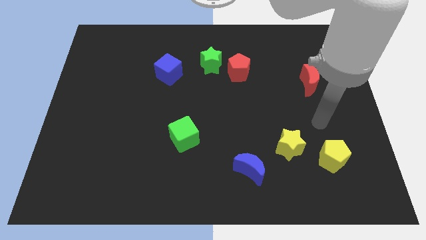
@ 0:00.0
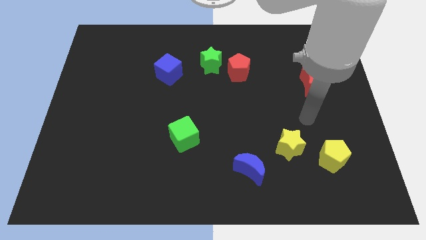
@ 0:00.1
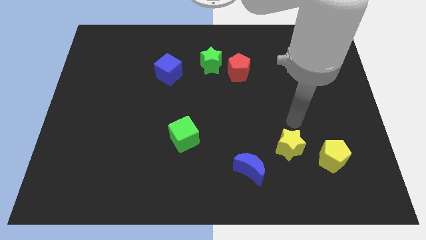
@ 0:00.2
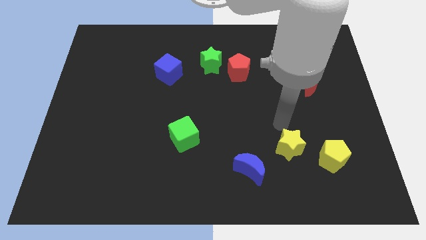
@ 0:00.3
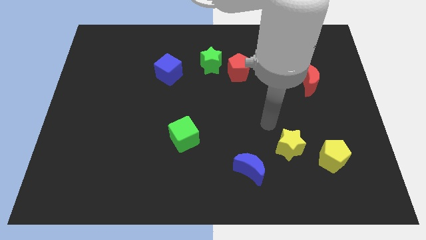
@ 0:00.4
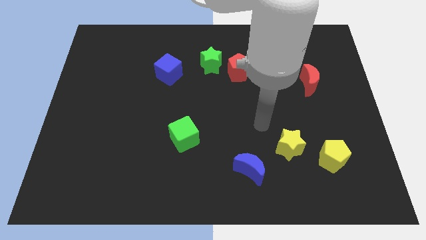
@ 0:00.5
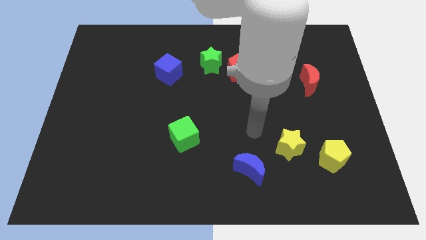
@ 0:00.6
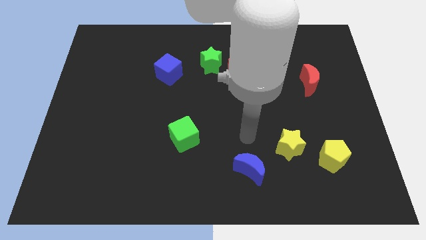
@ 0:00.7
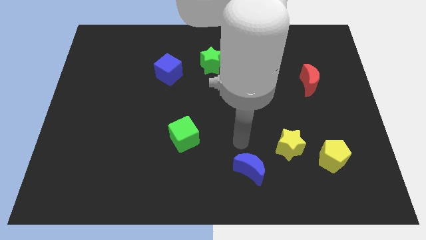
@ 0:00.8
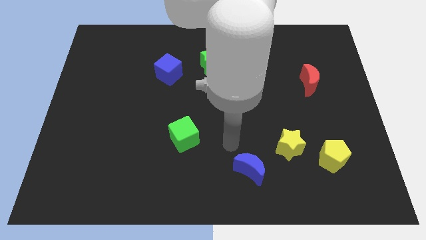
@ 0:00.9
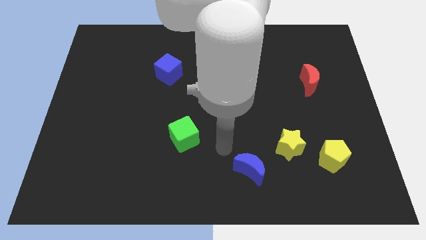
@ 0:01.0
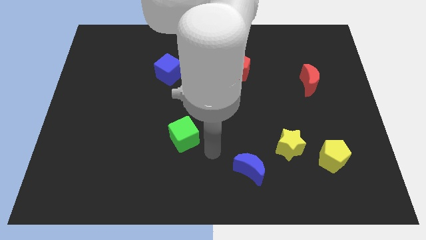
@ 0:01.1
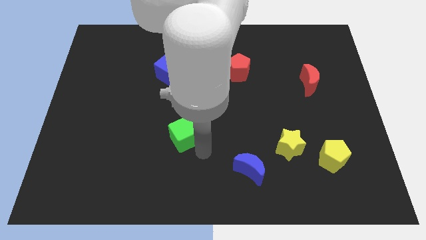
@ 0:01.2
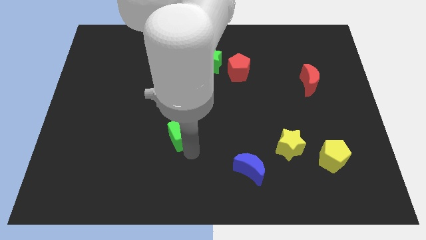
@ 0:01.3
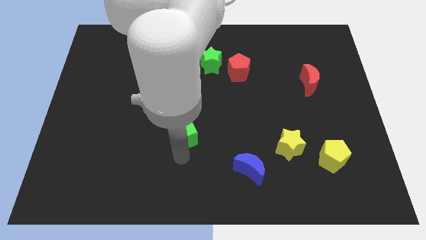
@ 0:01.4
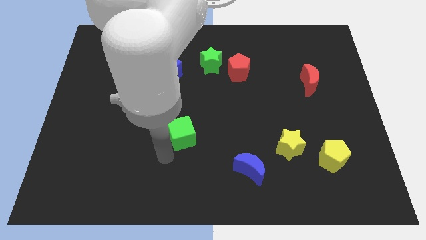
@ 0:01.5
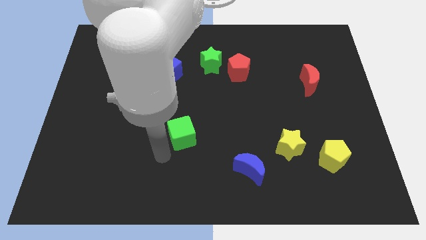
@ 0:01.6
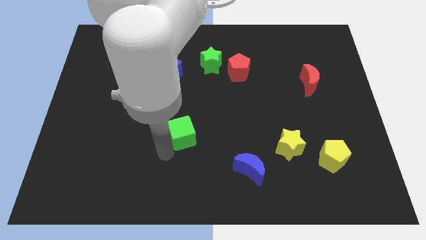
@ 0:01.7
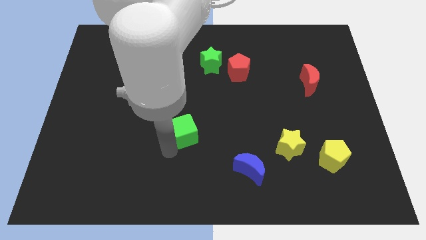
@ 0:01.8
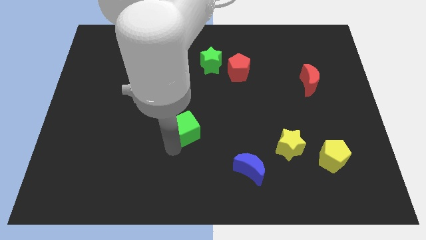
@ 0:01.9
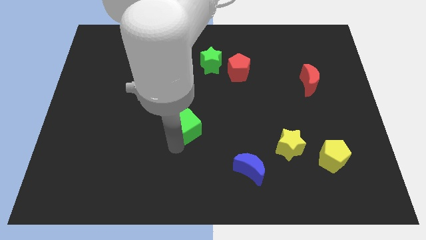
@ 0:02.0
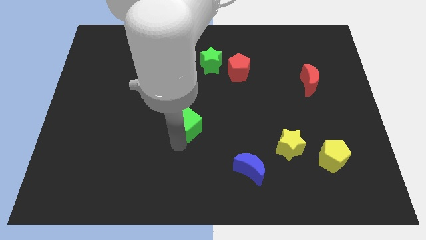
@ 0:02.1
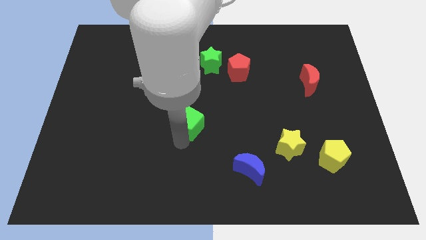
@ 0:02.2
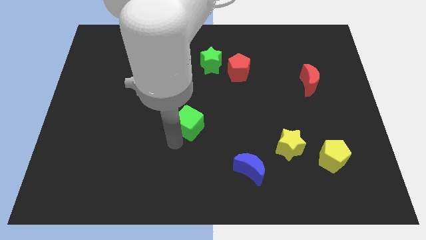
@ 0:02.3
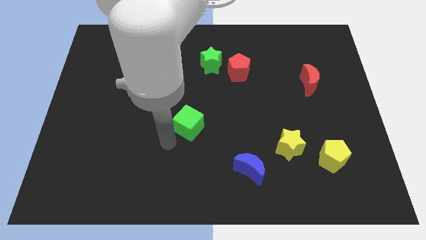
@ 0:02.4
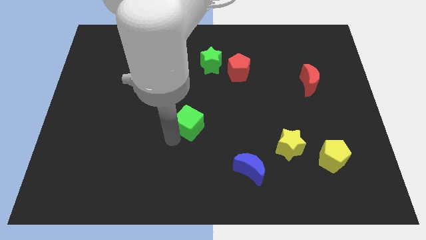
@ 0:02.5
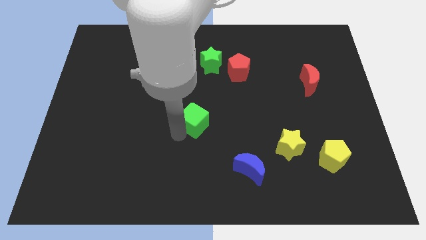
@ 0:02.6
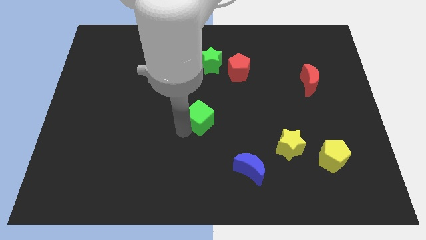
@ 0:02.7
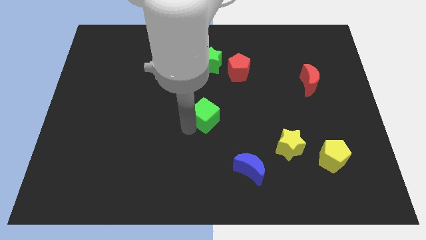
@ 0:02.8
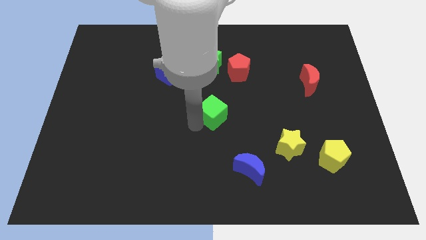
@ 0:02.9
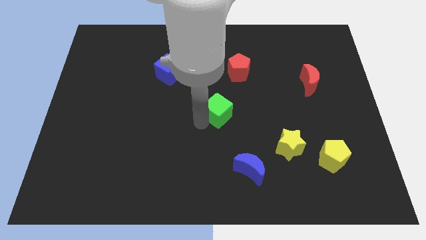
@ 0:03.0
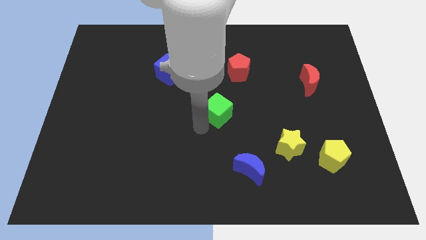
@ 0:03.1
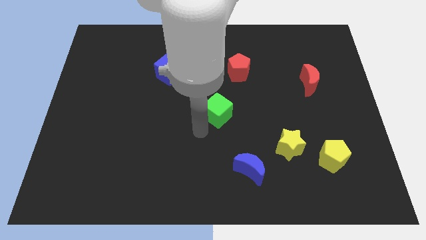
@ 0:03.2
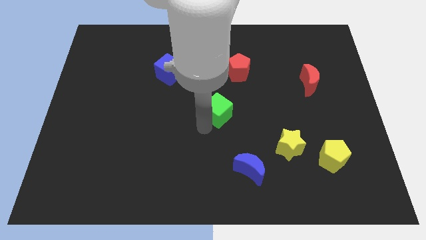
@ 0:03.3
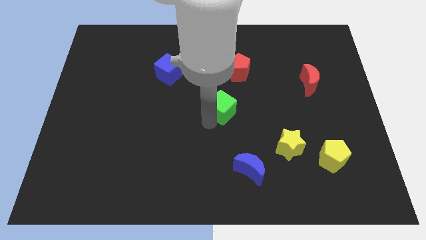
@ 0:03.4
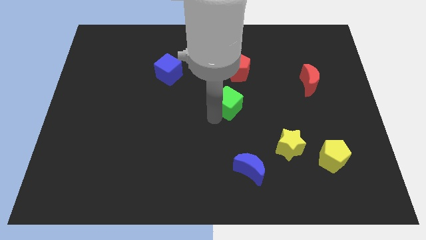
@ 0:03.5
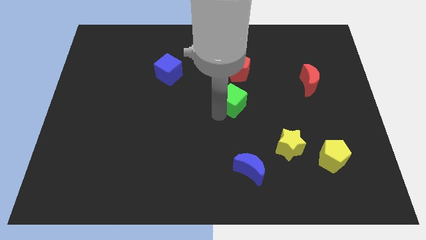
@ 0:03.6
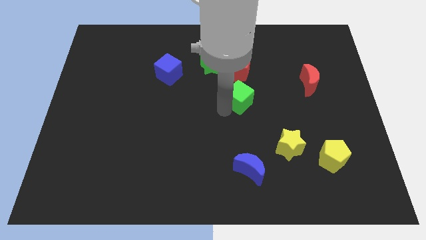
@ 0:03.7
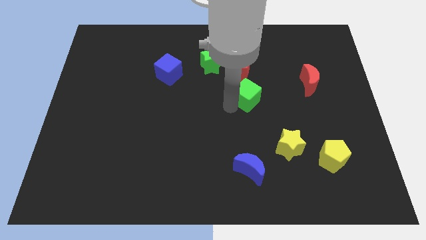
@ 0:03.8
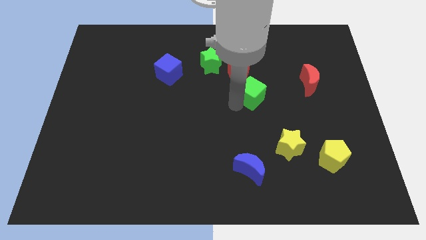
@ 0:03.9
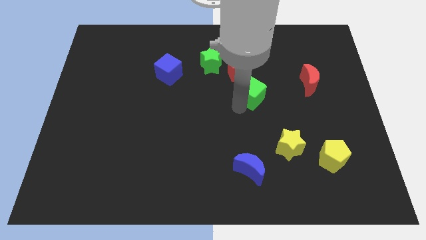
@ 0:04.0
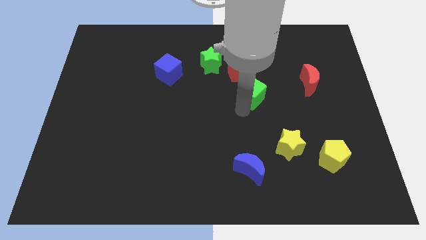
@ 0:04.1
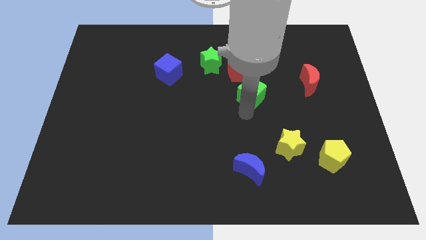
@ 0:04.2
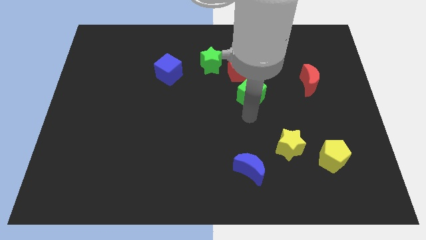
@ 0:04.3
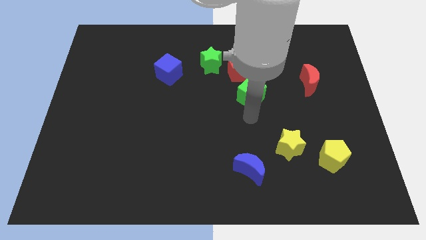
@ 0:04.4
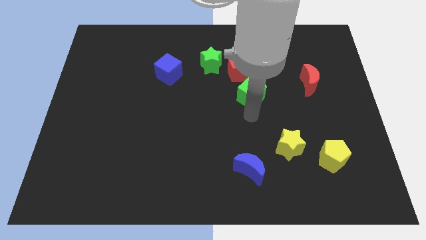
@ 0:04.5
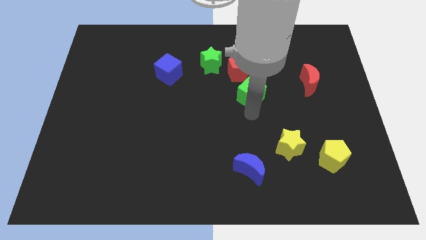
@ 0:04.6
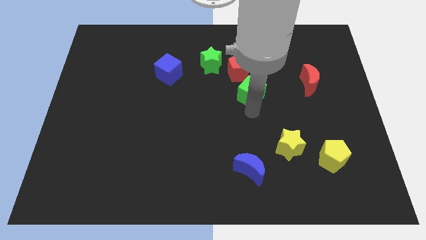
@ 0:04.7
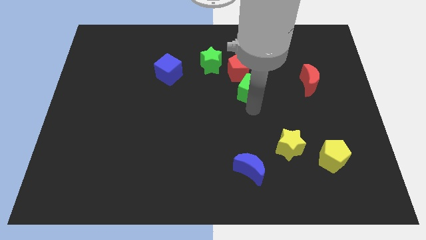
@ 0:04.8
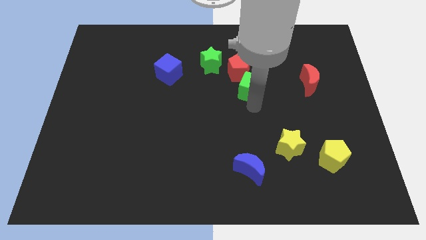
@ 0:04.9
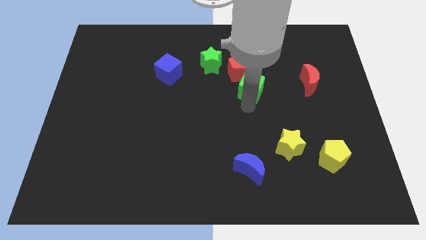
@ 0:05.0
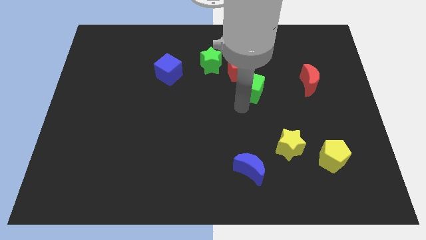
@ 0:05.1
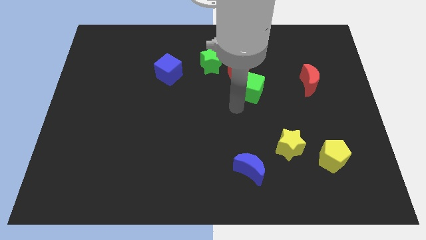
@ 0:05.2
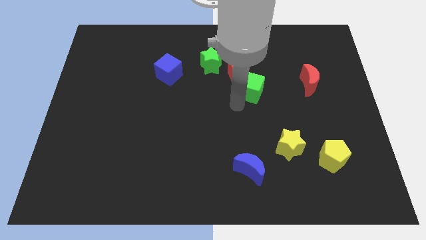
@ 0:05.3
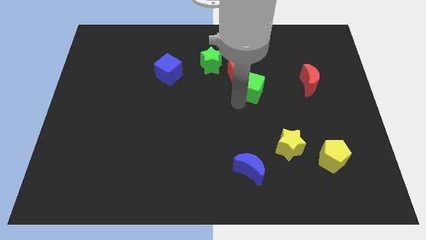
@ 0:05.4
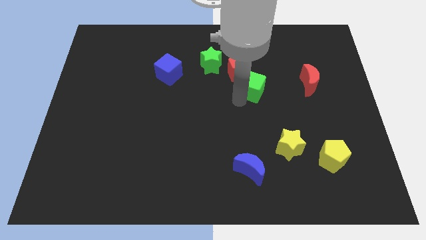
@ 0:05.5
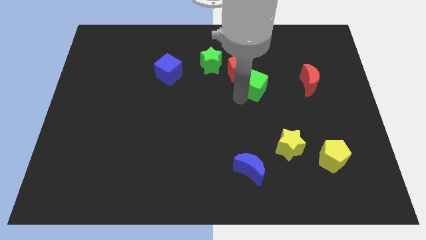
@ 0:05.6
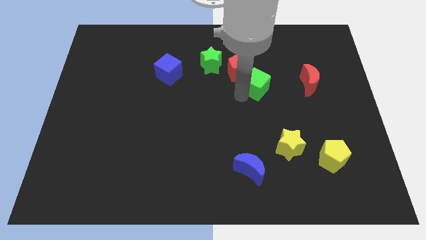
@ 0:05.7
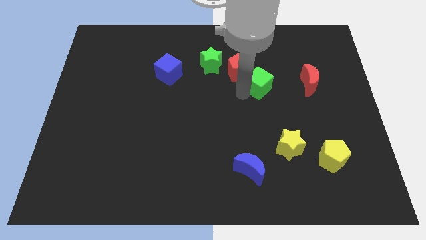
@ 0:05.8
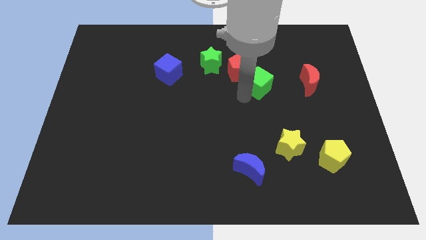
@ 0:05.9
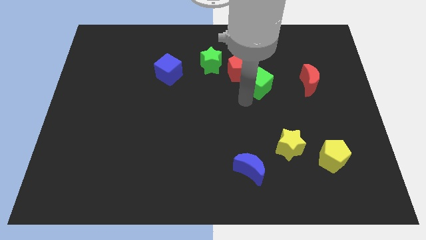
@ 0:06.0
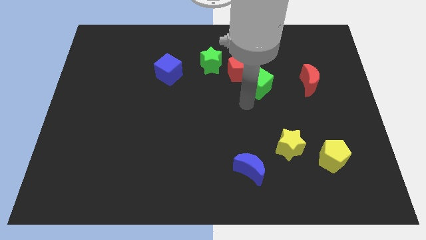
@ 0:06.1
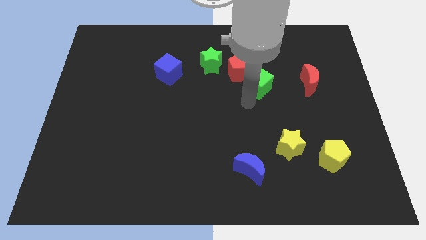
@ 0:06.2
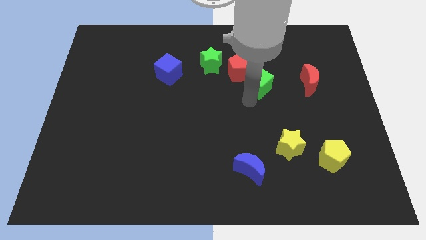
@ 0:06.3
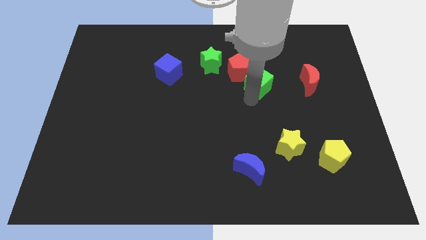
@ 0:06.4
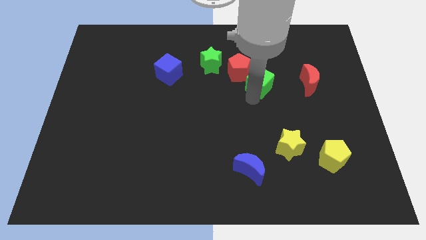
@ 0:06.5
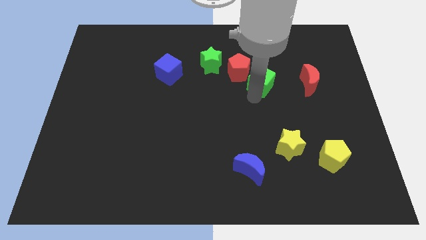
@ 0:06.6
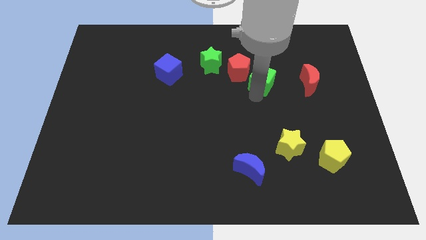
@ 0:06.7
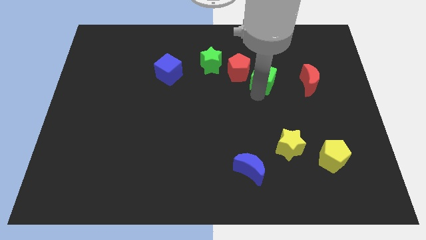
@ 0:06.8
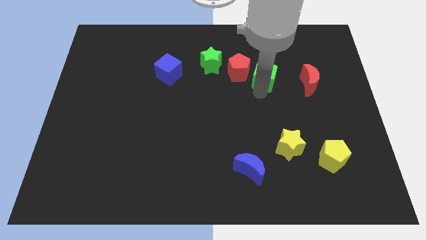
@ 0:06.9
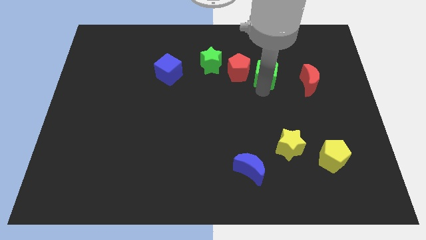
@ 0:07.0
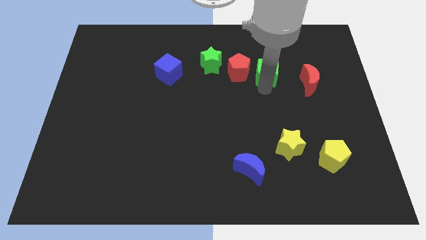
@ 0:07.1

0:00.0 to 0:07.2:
push the green cube just right of the green star
